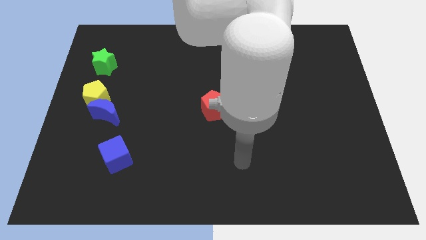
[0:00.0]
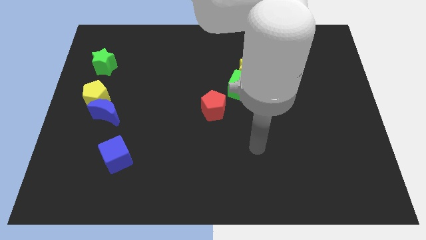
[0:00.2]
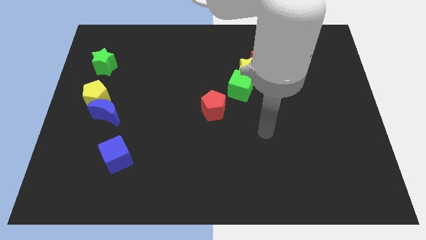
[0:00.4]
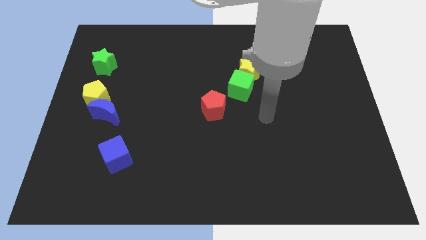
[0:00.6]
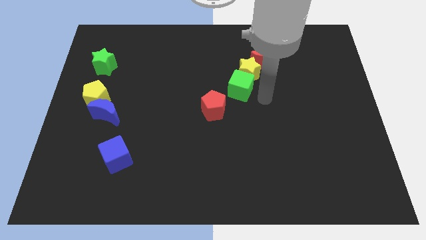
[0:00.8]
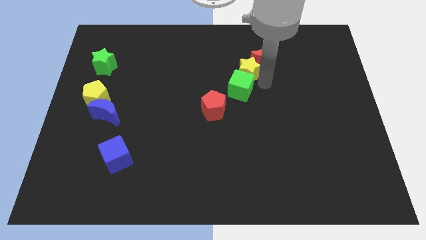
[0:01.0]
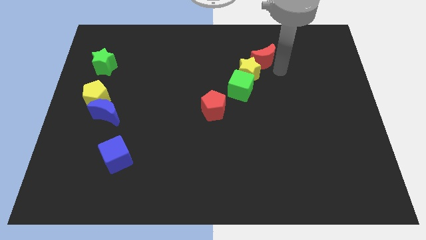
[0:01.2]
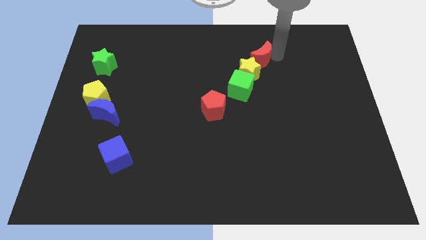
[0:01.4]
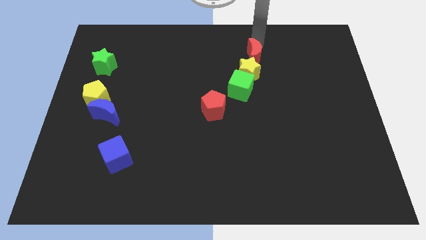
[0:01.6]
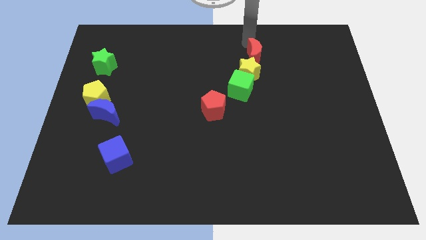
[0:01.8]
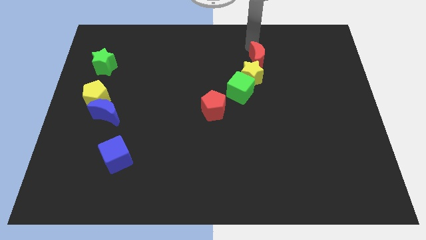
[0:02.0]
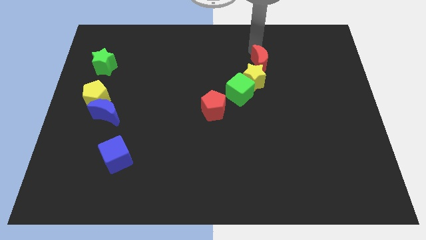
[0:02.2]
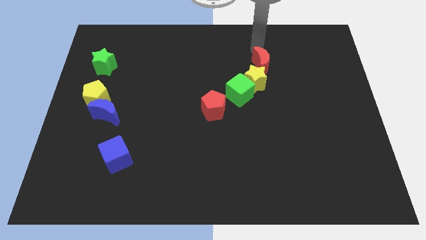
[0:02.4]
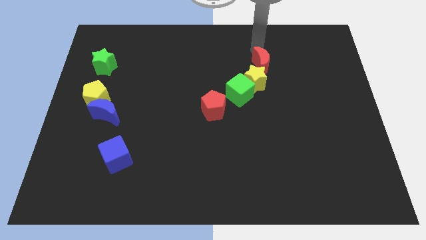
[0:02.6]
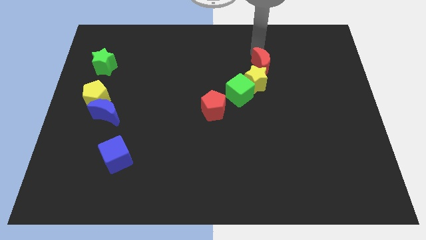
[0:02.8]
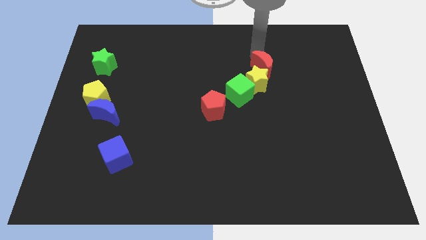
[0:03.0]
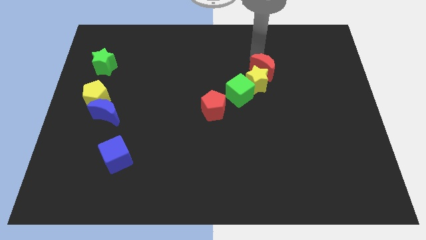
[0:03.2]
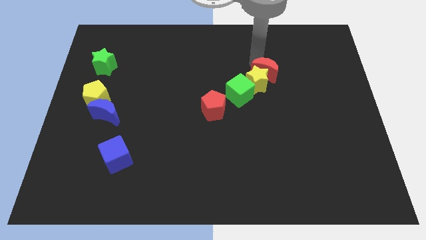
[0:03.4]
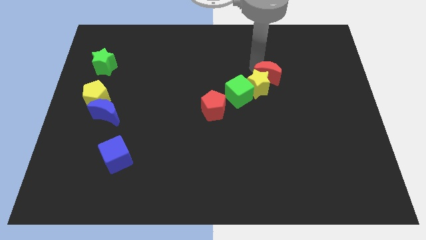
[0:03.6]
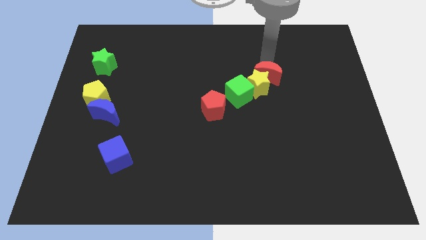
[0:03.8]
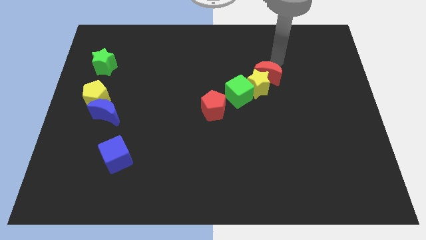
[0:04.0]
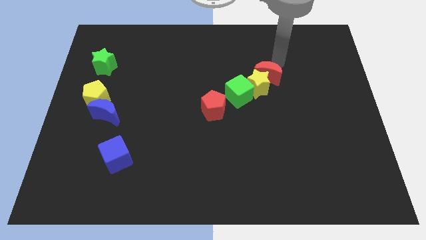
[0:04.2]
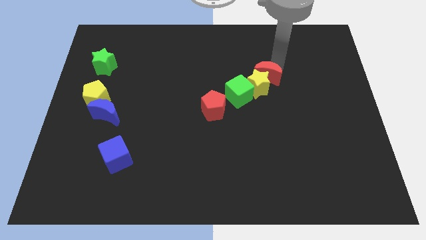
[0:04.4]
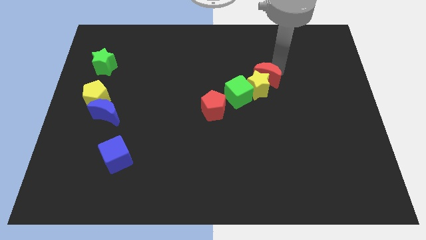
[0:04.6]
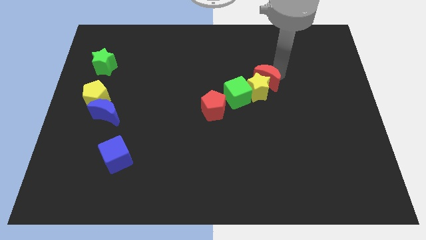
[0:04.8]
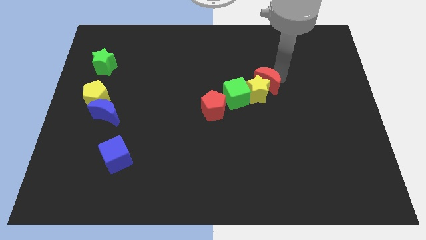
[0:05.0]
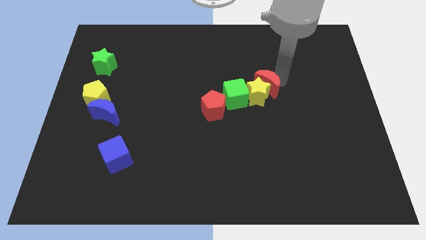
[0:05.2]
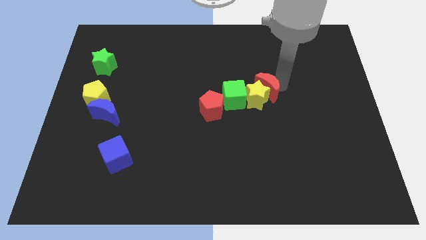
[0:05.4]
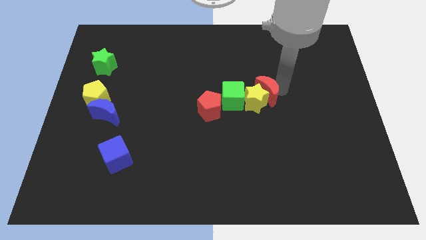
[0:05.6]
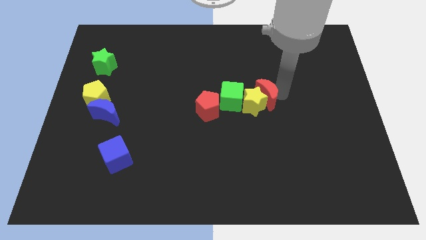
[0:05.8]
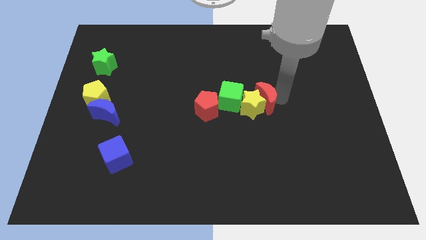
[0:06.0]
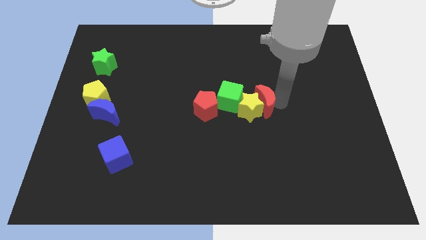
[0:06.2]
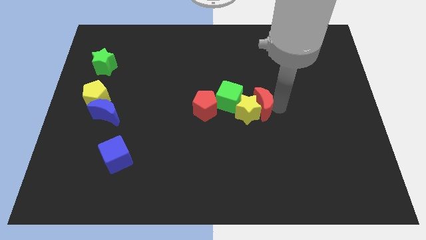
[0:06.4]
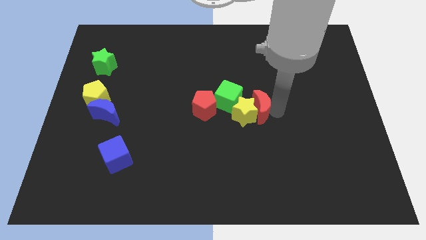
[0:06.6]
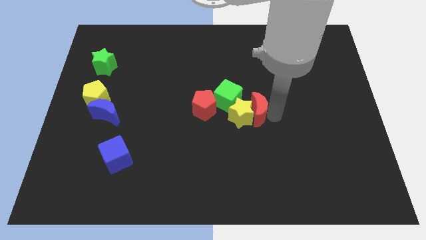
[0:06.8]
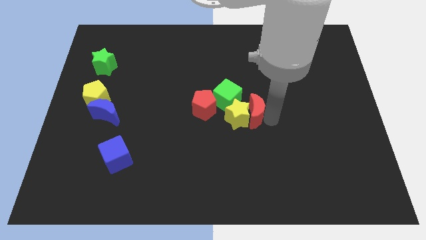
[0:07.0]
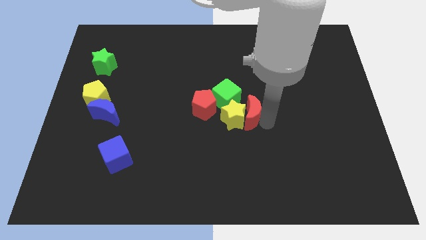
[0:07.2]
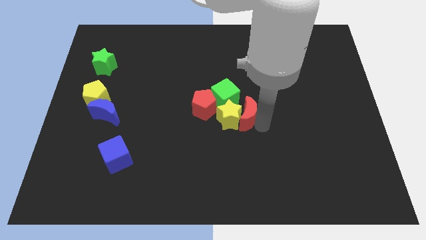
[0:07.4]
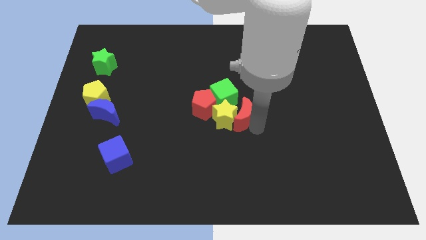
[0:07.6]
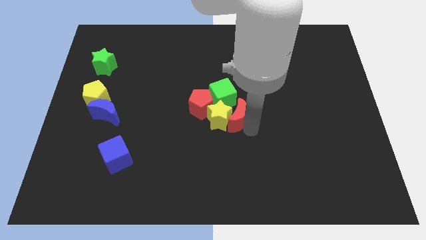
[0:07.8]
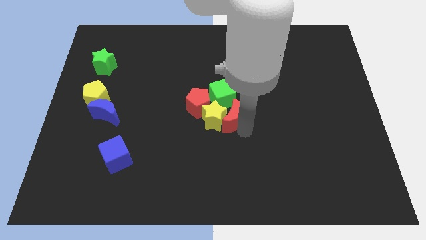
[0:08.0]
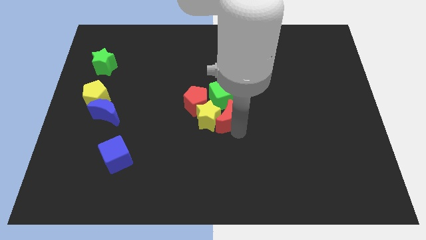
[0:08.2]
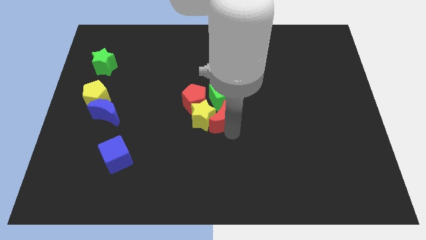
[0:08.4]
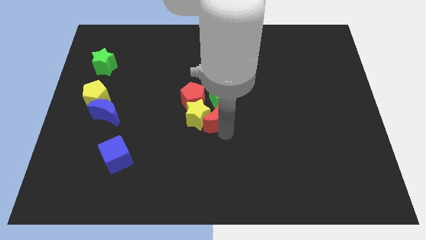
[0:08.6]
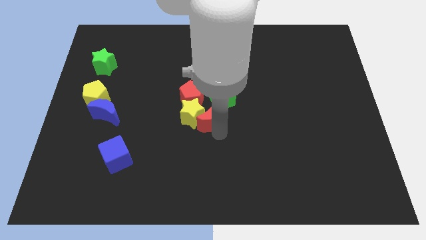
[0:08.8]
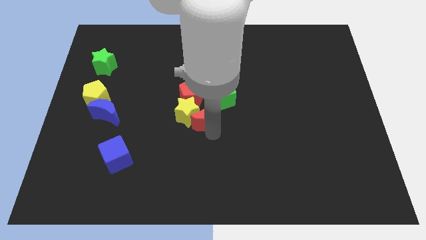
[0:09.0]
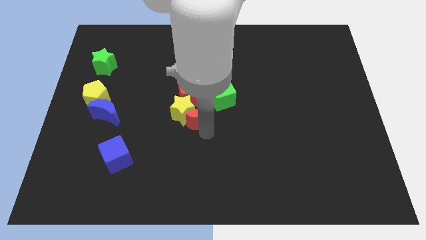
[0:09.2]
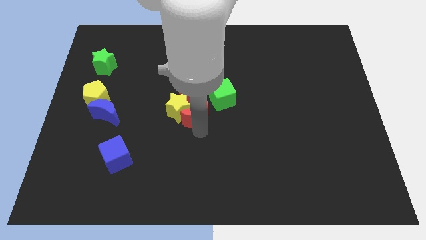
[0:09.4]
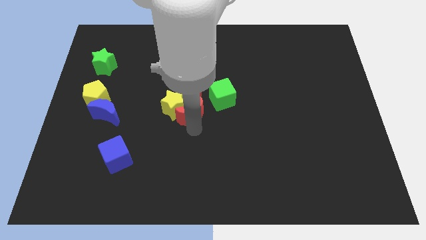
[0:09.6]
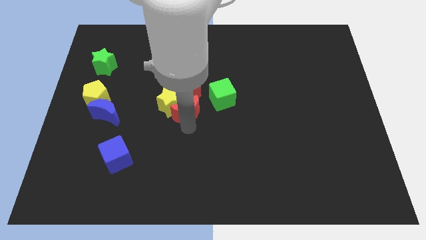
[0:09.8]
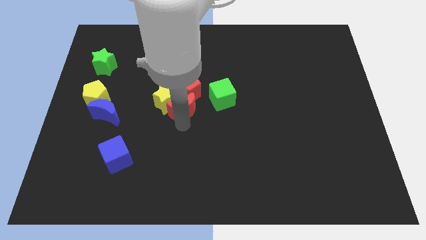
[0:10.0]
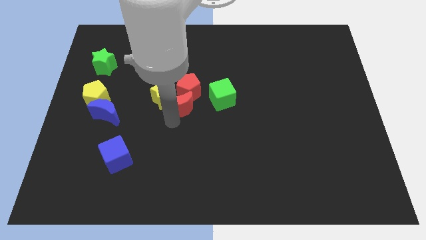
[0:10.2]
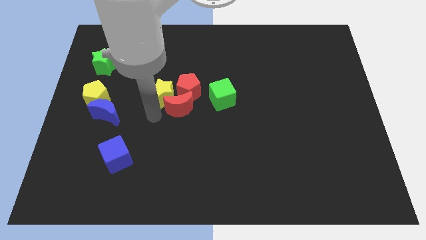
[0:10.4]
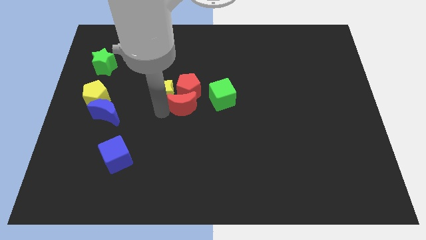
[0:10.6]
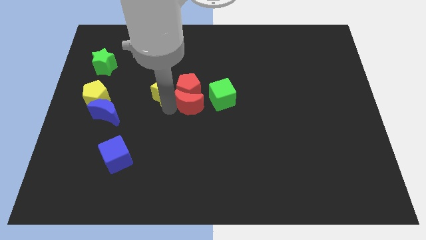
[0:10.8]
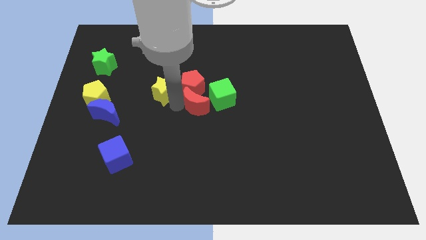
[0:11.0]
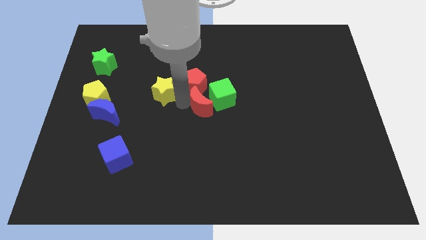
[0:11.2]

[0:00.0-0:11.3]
move the red moon next to the green cube

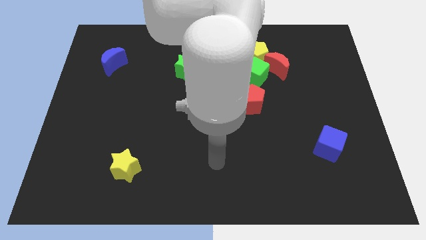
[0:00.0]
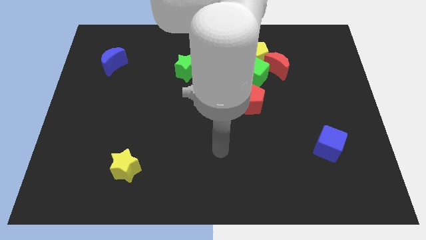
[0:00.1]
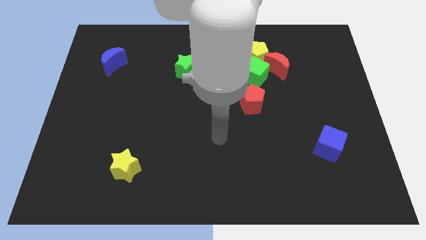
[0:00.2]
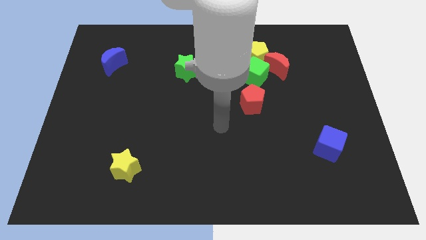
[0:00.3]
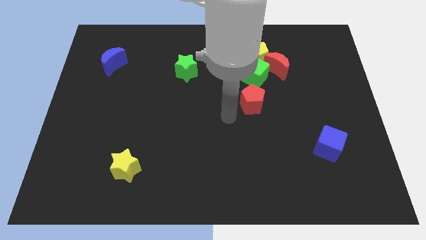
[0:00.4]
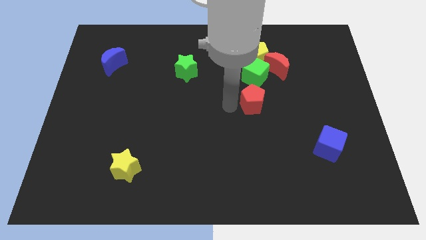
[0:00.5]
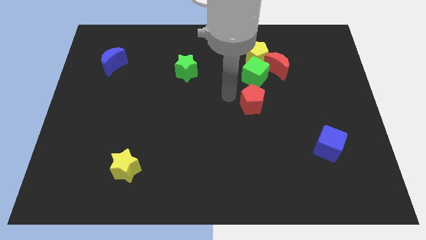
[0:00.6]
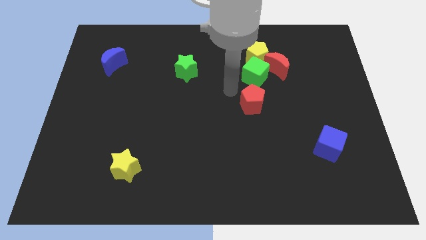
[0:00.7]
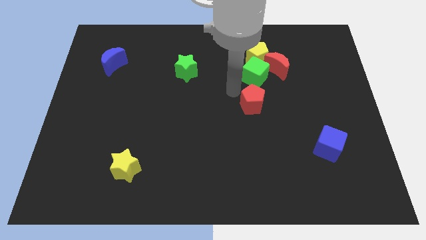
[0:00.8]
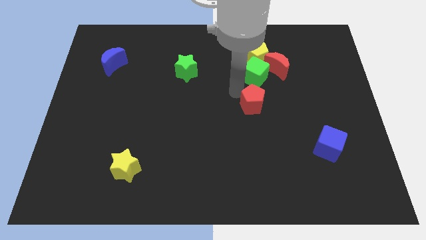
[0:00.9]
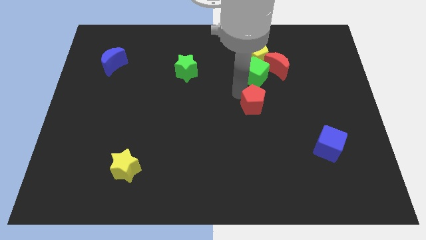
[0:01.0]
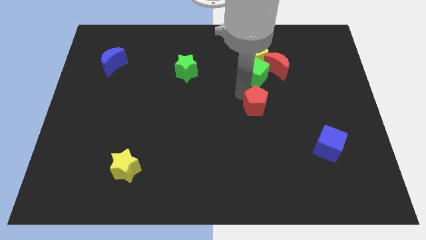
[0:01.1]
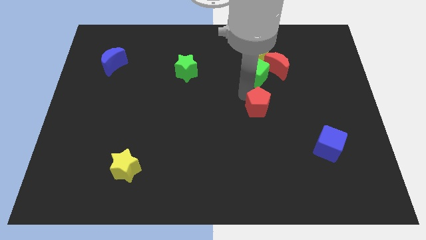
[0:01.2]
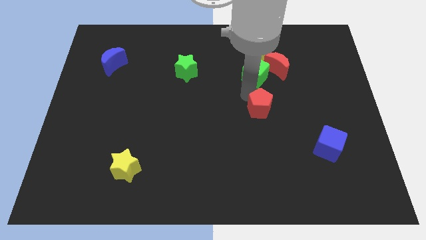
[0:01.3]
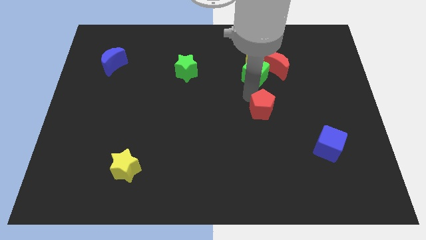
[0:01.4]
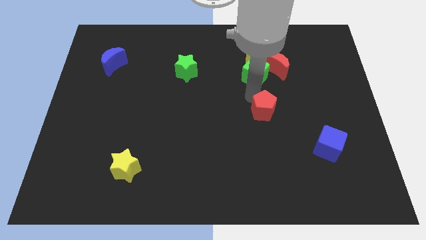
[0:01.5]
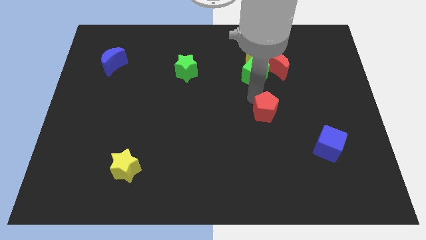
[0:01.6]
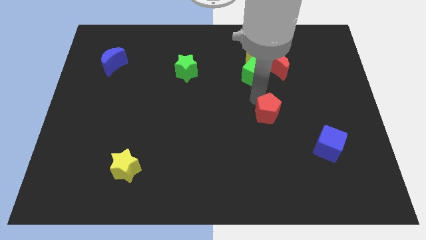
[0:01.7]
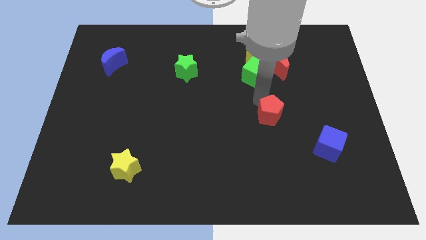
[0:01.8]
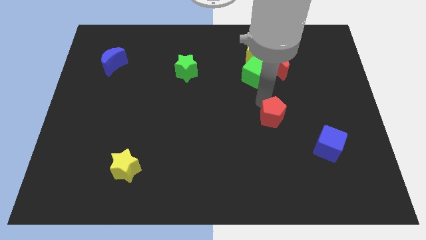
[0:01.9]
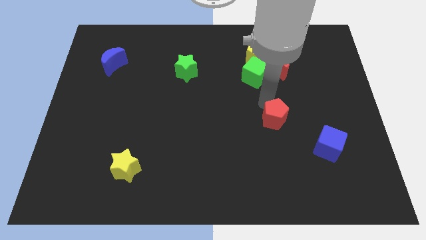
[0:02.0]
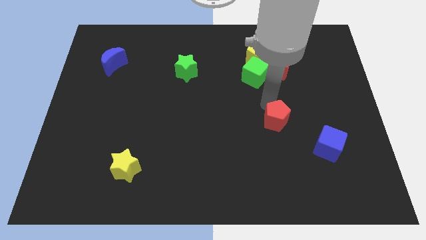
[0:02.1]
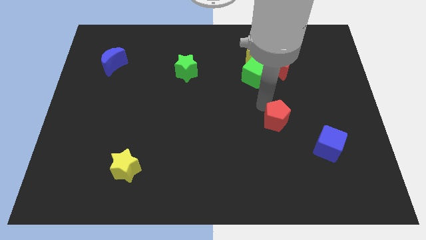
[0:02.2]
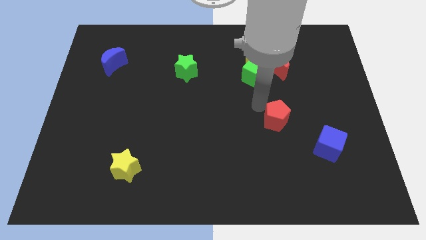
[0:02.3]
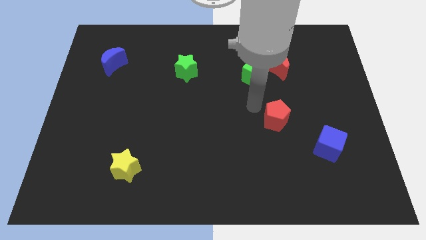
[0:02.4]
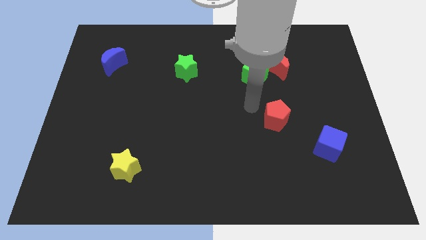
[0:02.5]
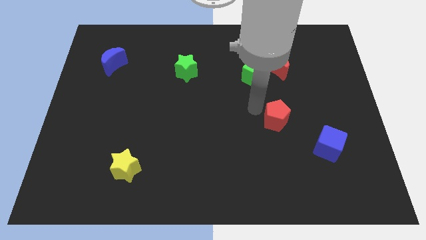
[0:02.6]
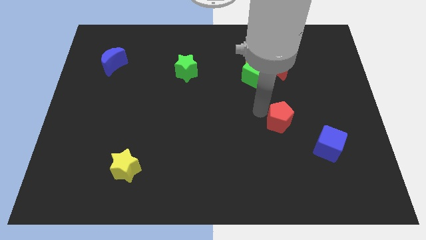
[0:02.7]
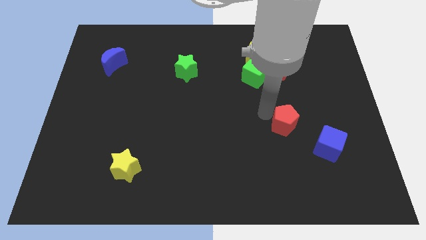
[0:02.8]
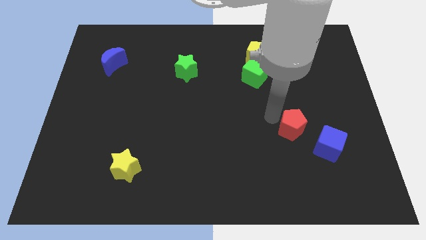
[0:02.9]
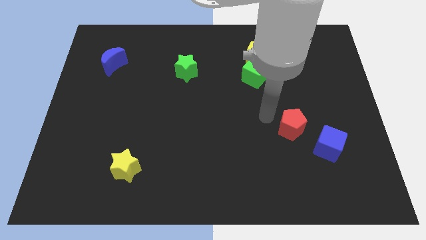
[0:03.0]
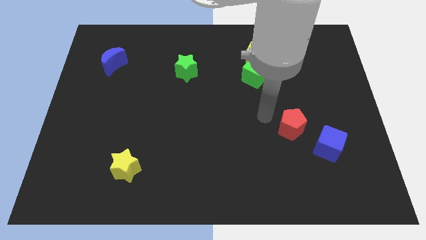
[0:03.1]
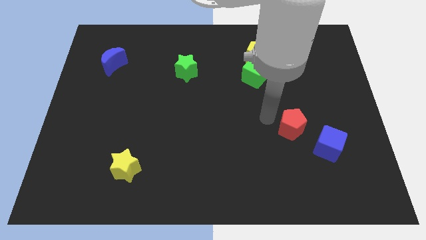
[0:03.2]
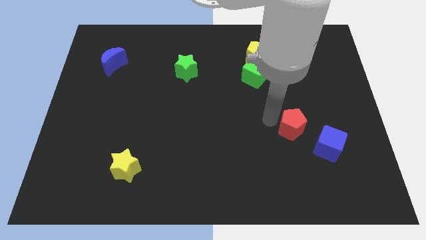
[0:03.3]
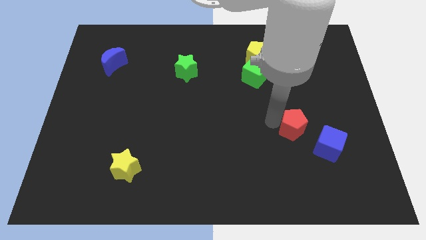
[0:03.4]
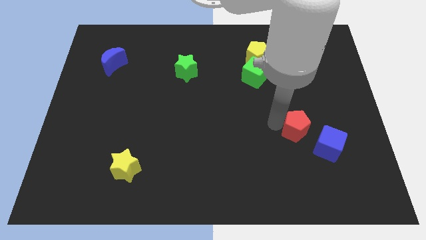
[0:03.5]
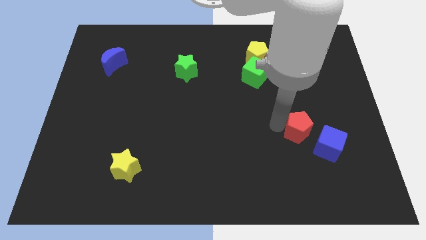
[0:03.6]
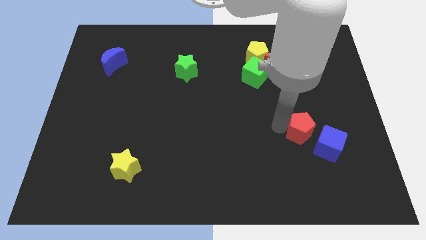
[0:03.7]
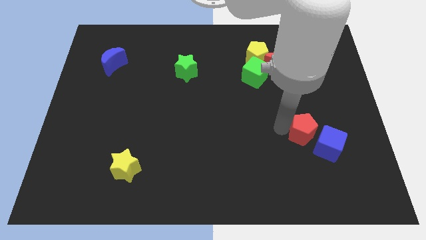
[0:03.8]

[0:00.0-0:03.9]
move the red pentagon to the blue cube
